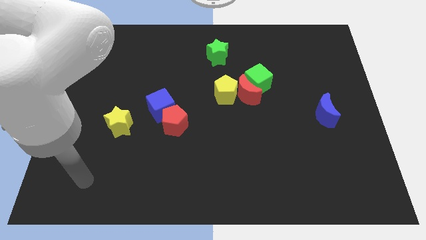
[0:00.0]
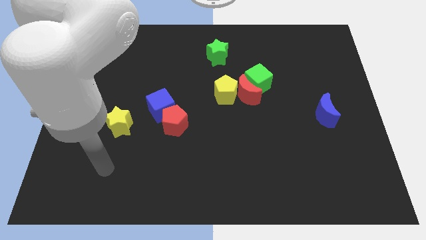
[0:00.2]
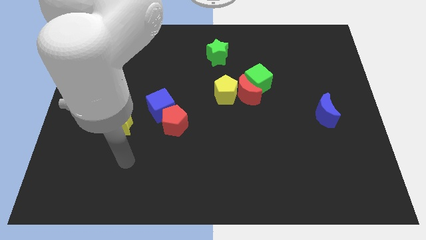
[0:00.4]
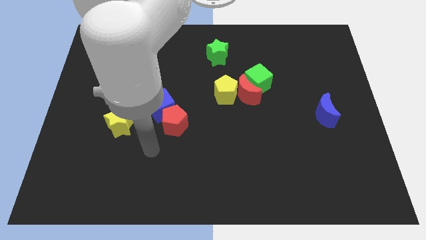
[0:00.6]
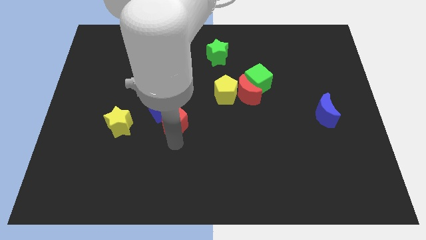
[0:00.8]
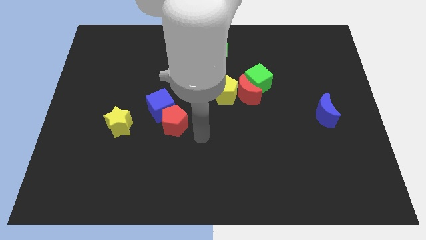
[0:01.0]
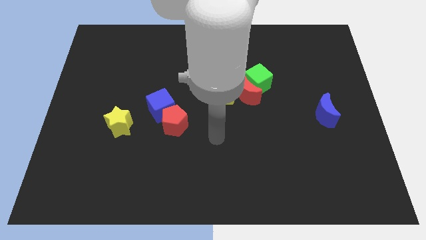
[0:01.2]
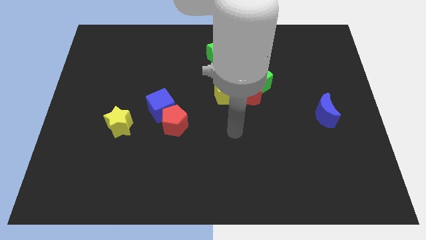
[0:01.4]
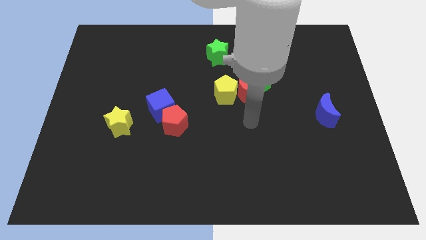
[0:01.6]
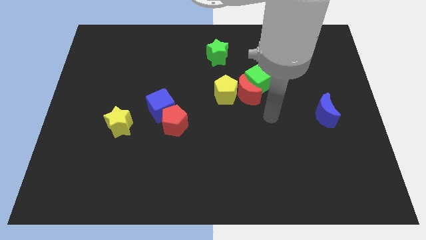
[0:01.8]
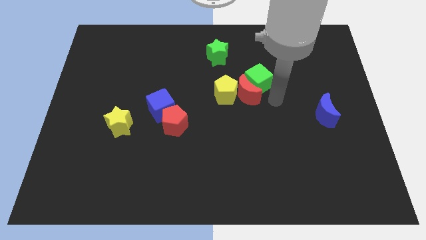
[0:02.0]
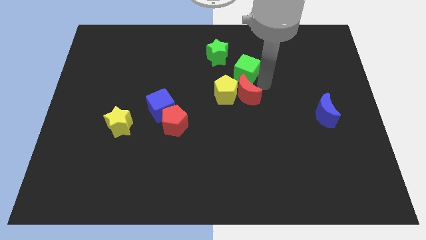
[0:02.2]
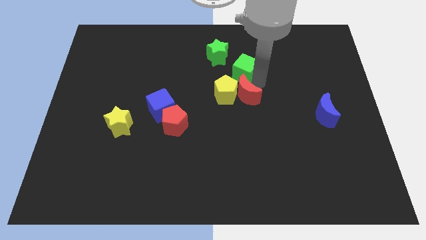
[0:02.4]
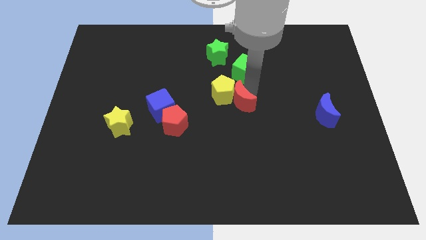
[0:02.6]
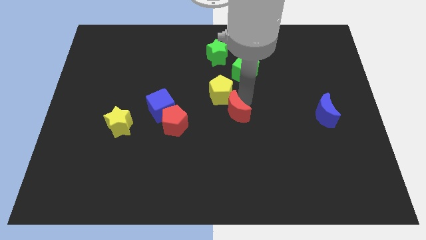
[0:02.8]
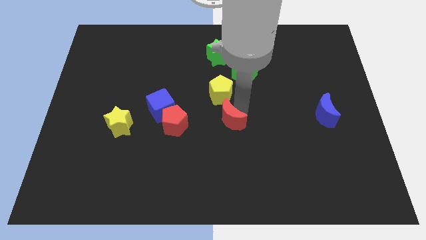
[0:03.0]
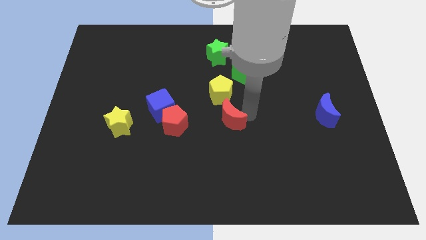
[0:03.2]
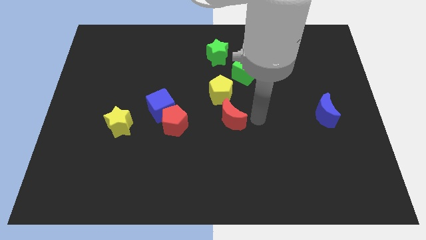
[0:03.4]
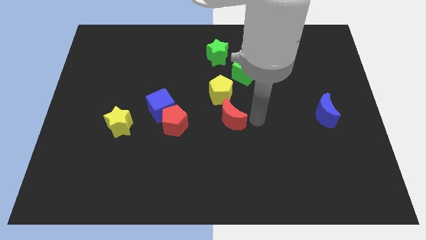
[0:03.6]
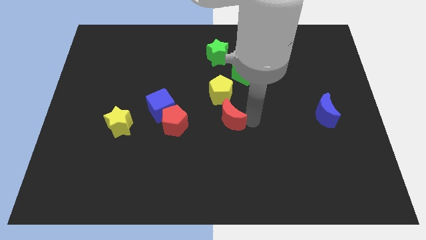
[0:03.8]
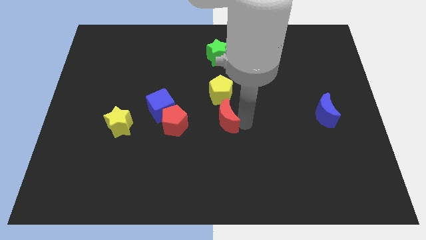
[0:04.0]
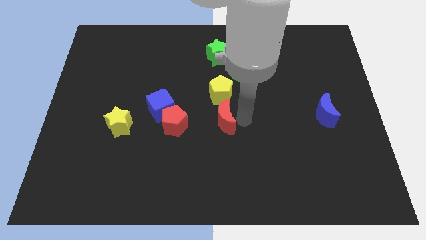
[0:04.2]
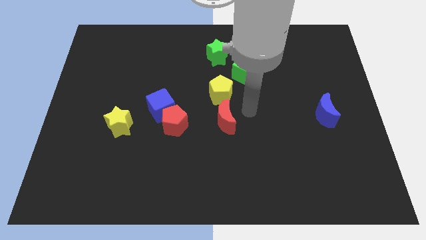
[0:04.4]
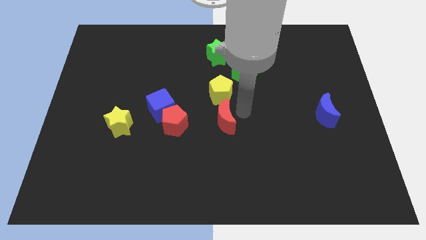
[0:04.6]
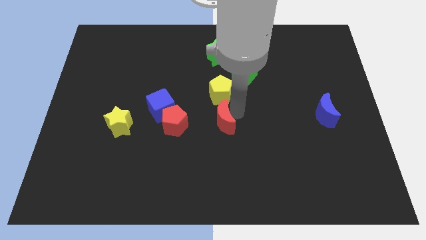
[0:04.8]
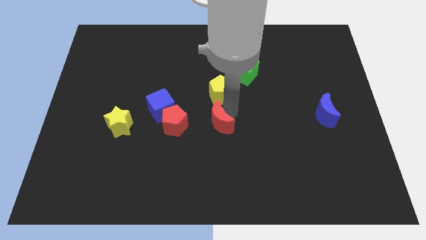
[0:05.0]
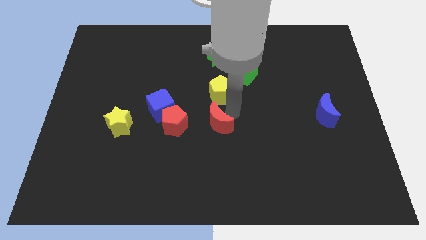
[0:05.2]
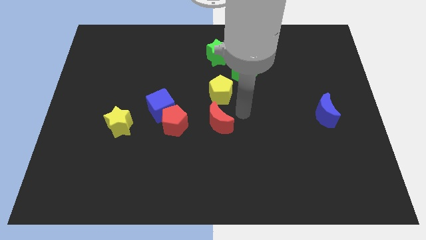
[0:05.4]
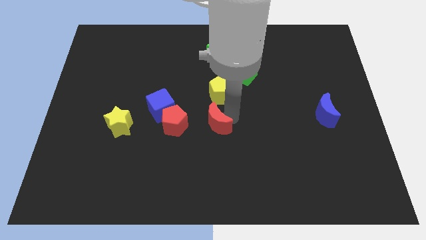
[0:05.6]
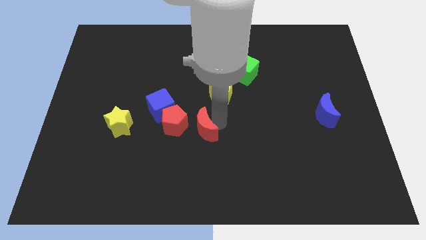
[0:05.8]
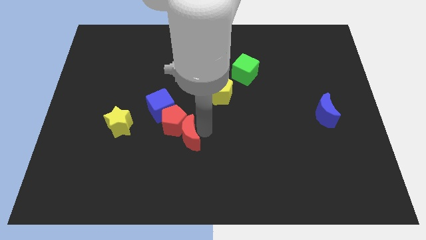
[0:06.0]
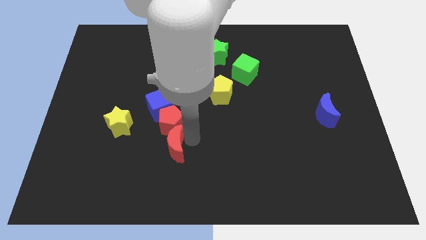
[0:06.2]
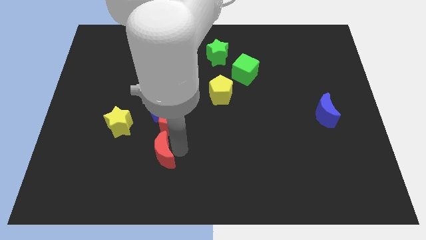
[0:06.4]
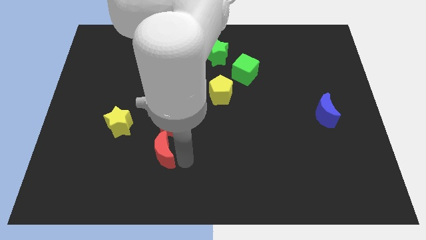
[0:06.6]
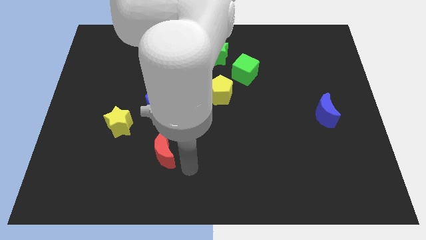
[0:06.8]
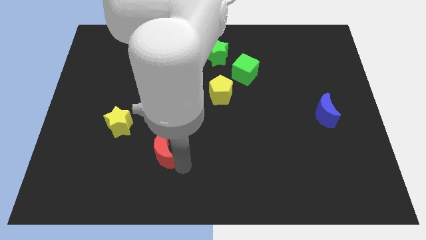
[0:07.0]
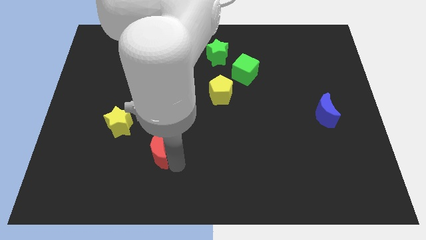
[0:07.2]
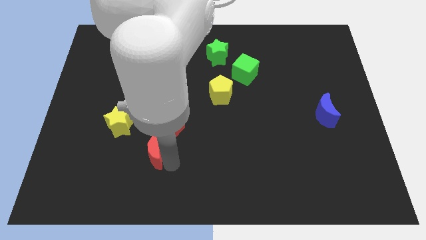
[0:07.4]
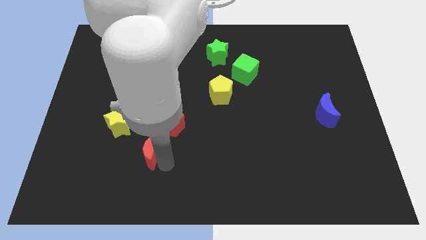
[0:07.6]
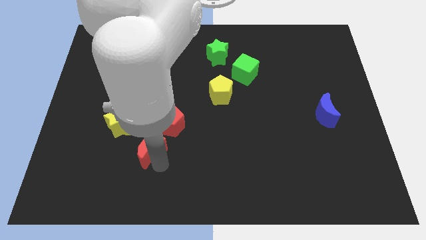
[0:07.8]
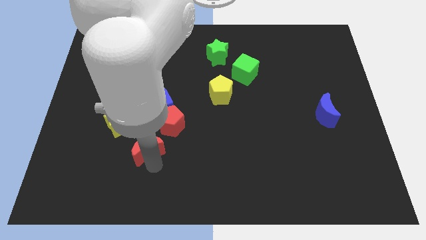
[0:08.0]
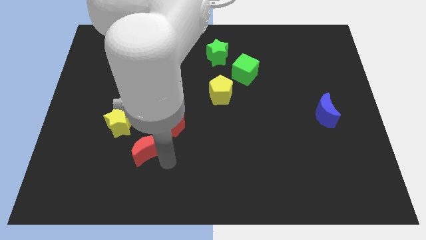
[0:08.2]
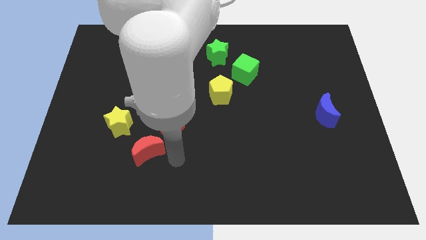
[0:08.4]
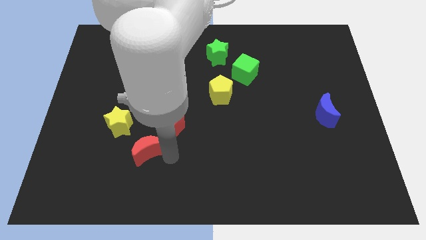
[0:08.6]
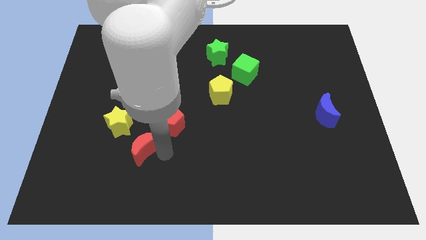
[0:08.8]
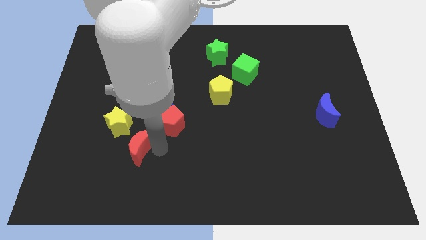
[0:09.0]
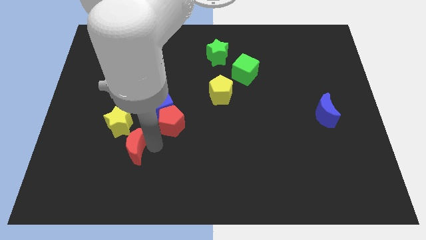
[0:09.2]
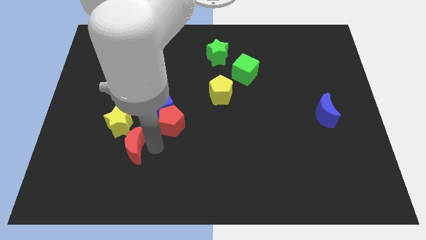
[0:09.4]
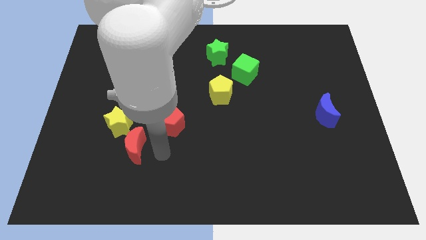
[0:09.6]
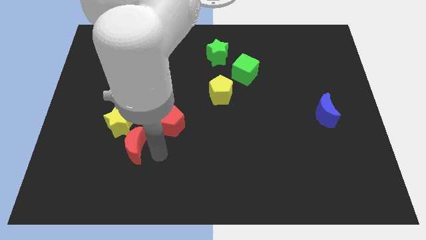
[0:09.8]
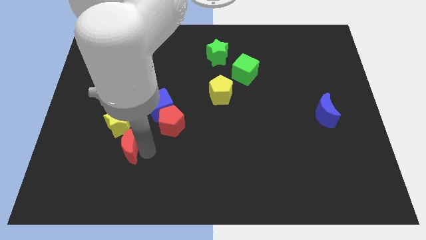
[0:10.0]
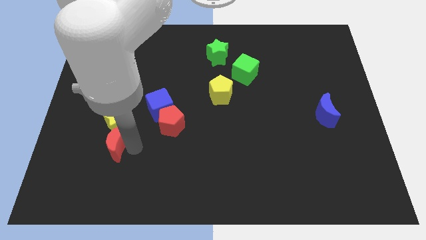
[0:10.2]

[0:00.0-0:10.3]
put the red moon diagonally down and to the left of the yellow star

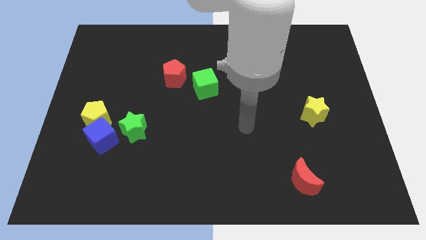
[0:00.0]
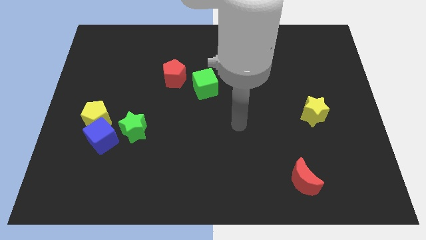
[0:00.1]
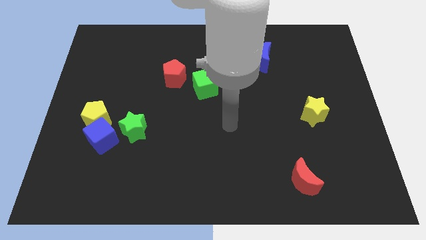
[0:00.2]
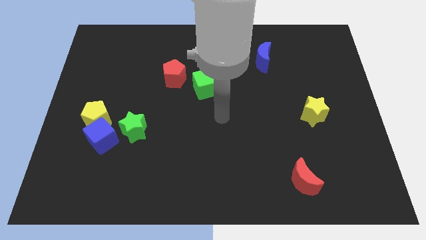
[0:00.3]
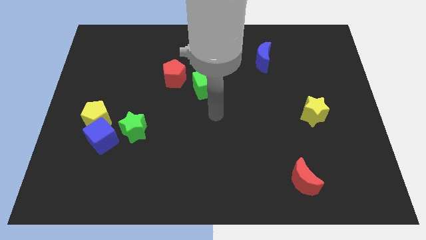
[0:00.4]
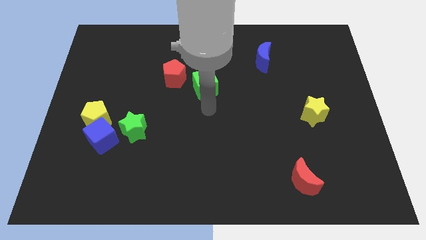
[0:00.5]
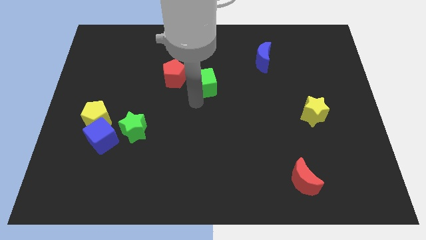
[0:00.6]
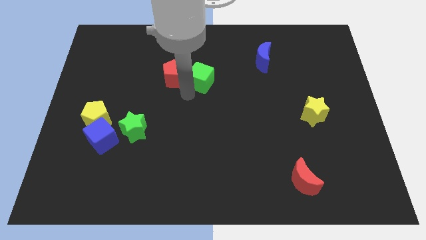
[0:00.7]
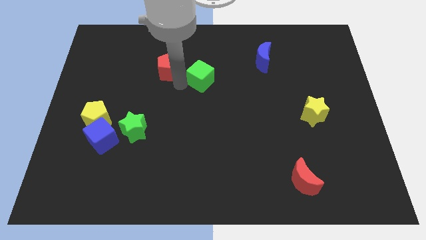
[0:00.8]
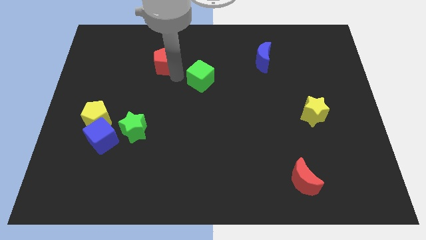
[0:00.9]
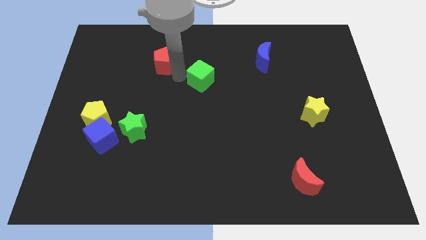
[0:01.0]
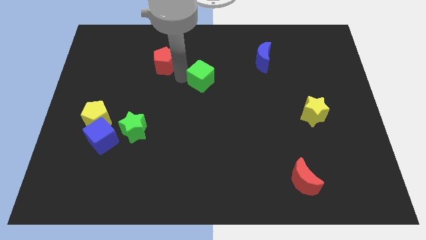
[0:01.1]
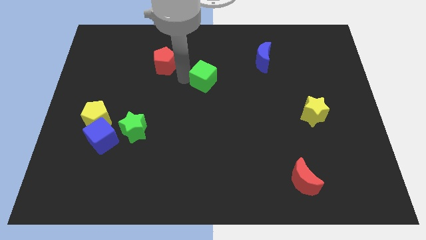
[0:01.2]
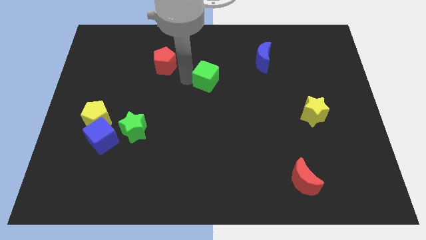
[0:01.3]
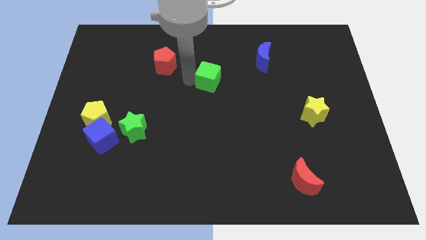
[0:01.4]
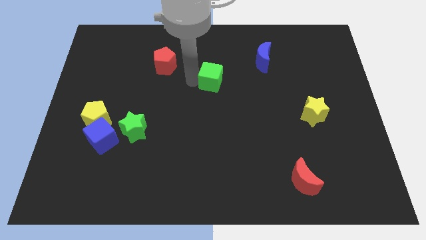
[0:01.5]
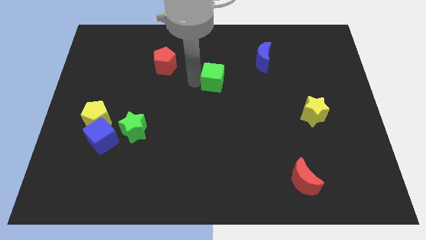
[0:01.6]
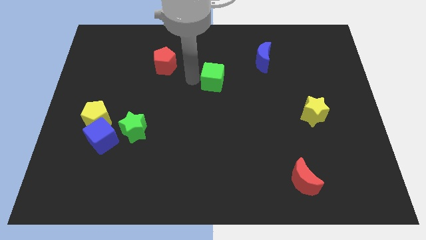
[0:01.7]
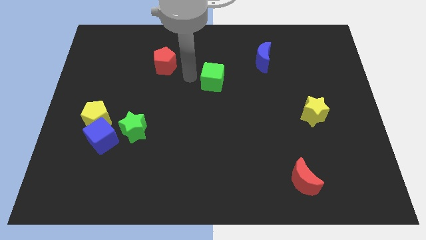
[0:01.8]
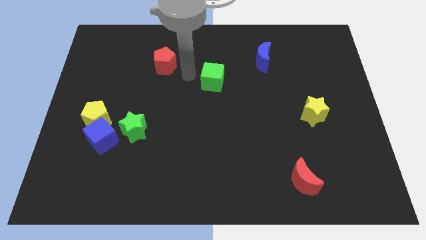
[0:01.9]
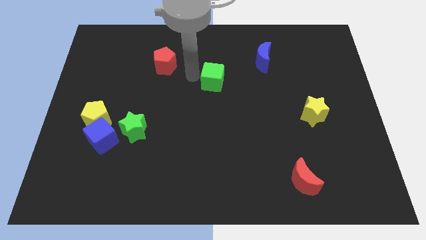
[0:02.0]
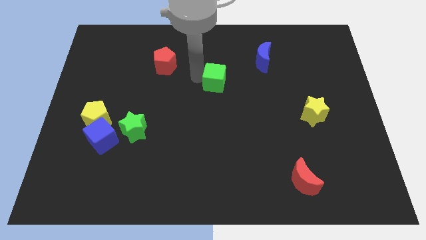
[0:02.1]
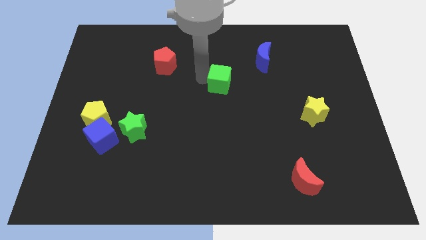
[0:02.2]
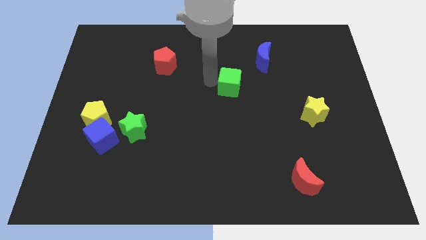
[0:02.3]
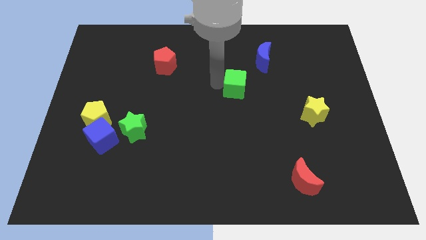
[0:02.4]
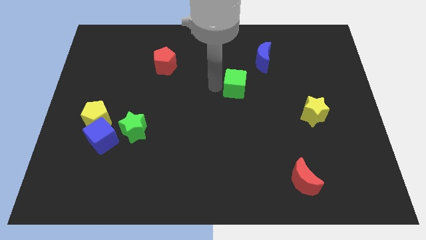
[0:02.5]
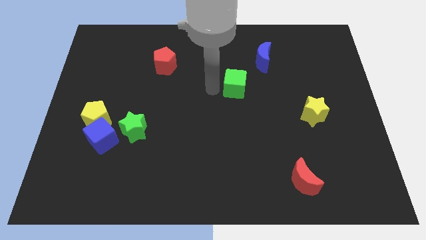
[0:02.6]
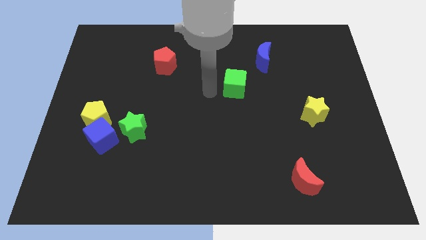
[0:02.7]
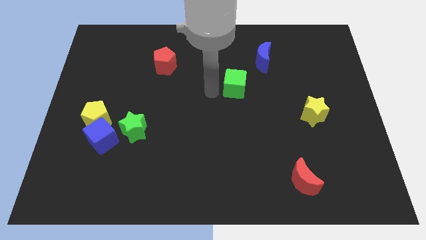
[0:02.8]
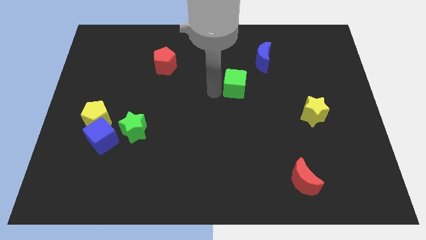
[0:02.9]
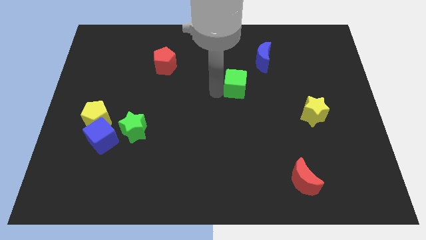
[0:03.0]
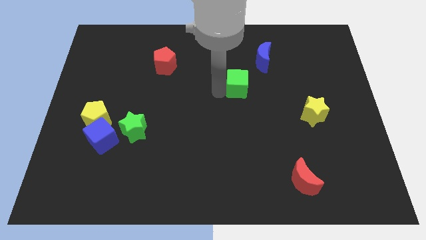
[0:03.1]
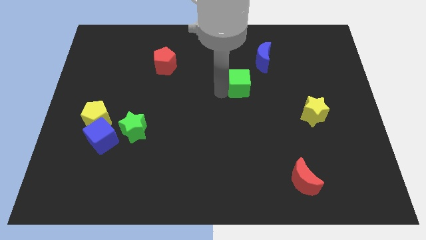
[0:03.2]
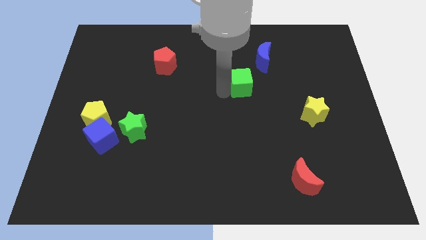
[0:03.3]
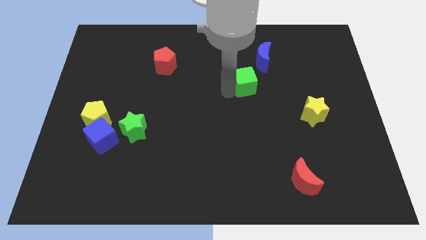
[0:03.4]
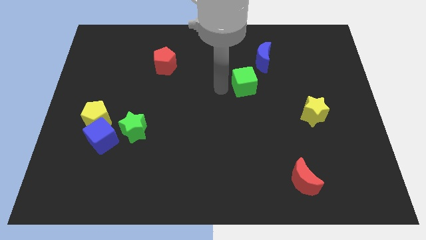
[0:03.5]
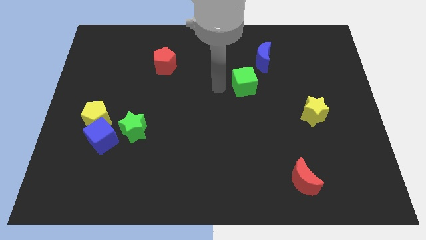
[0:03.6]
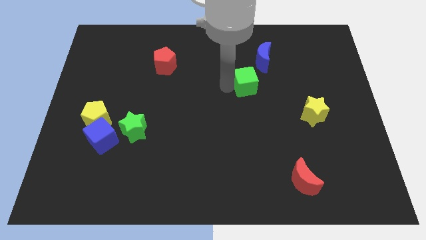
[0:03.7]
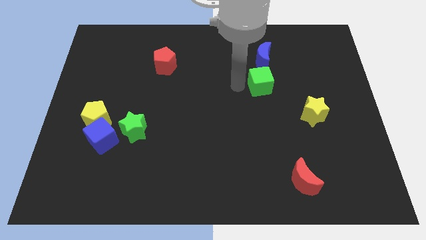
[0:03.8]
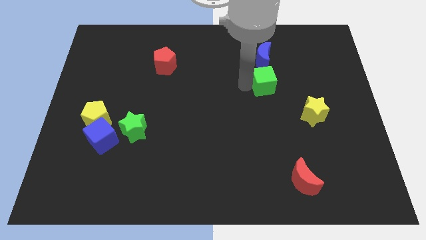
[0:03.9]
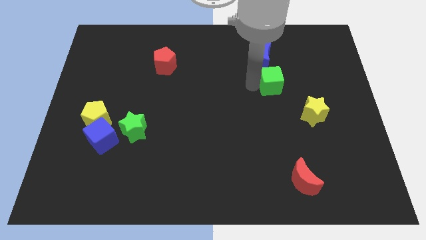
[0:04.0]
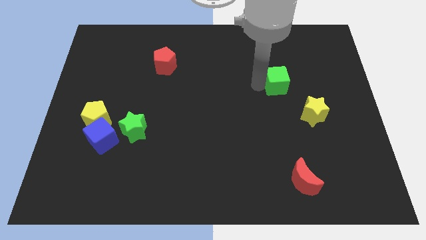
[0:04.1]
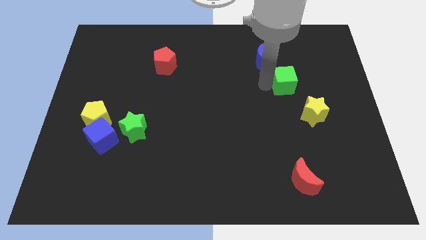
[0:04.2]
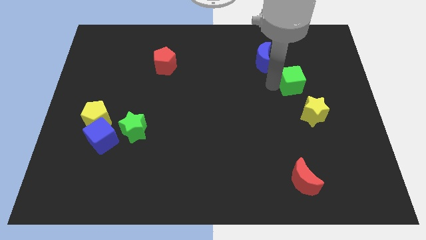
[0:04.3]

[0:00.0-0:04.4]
move the green cube to the top side of the yellow star
